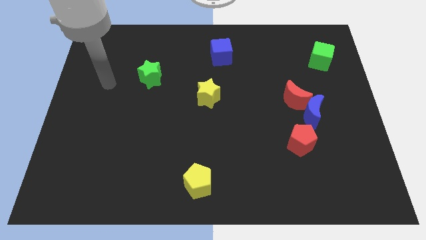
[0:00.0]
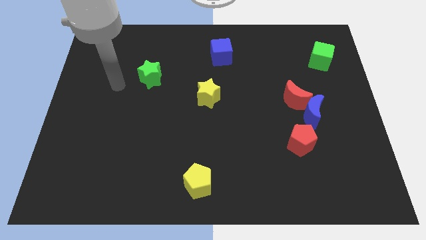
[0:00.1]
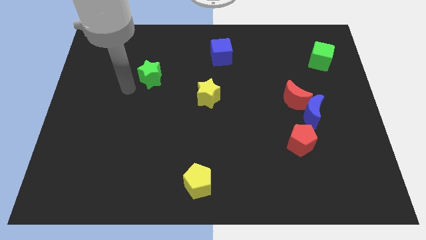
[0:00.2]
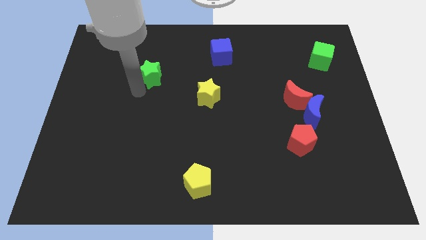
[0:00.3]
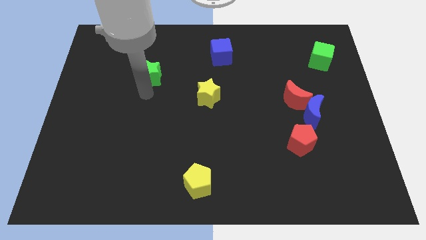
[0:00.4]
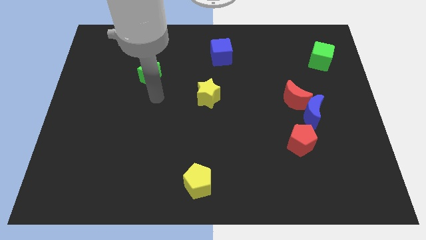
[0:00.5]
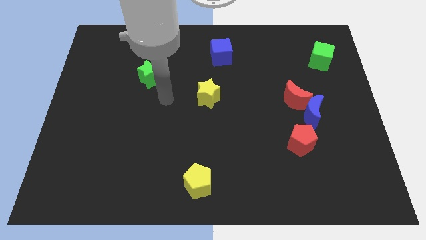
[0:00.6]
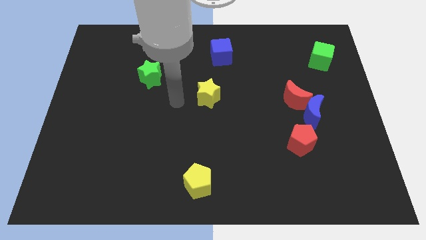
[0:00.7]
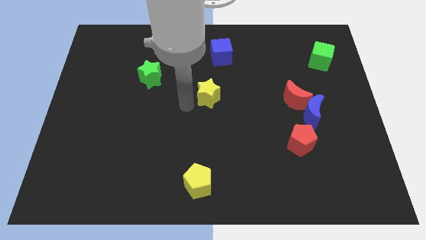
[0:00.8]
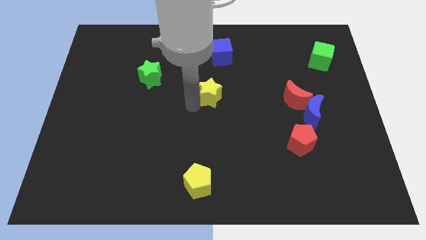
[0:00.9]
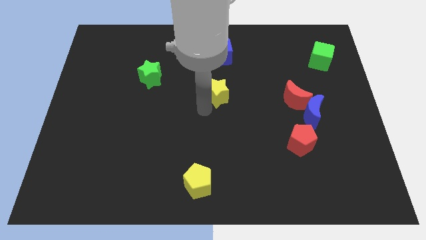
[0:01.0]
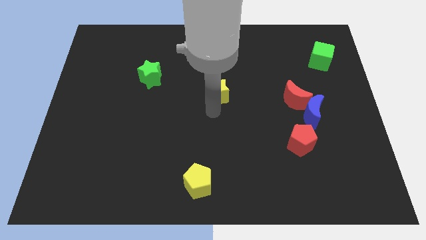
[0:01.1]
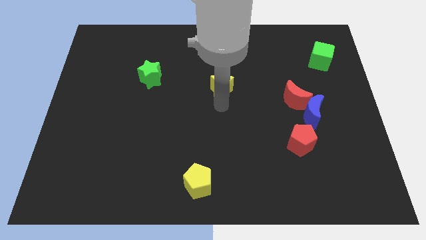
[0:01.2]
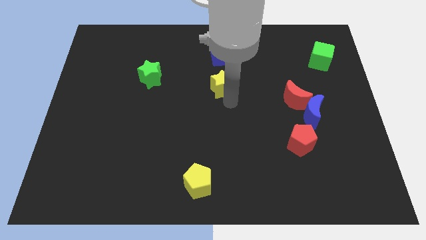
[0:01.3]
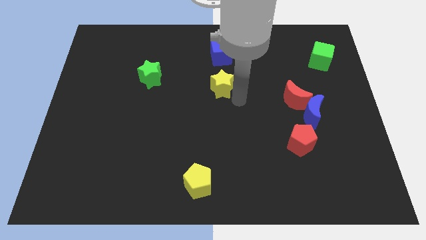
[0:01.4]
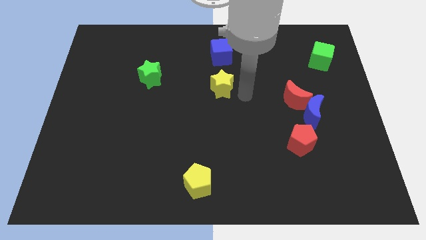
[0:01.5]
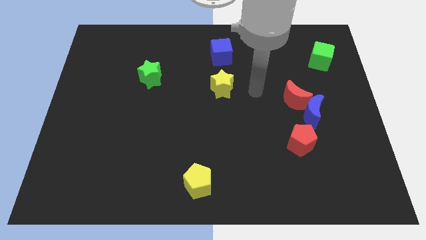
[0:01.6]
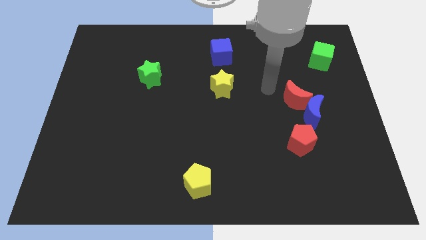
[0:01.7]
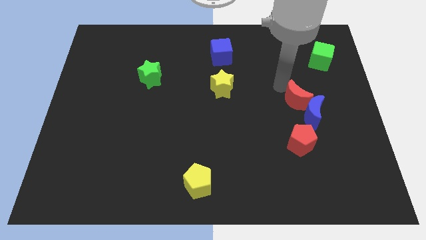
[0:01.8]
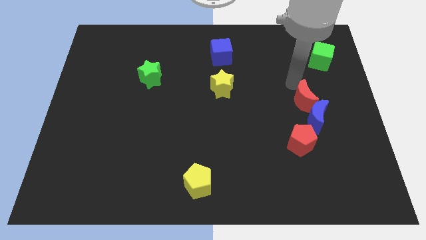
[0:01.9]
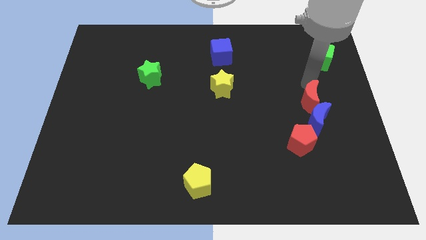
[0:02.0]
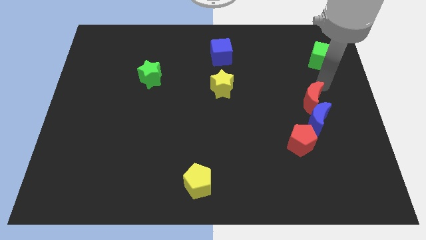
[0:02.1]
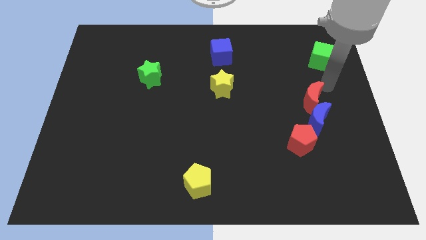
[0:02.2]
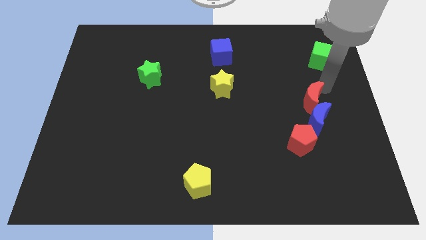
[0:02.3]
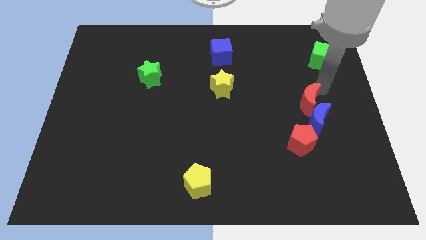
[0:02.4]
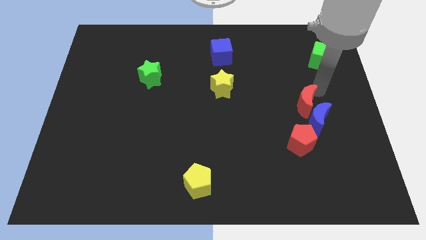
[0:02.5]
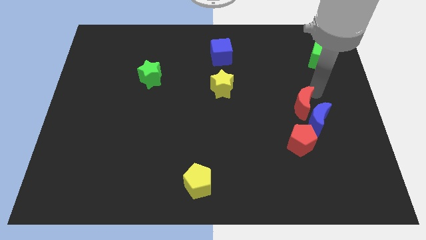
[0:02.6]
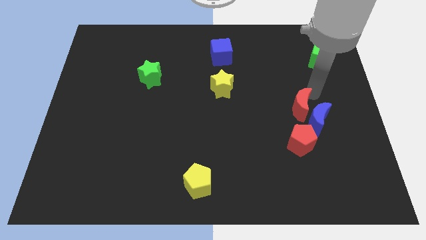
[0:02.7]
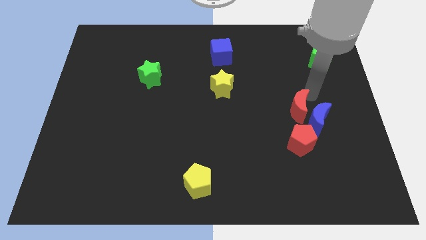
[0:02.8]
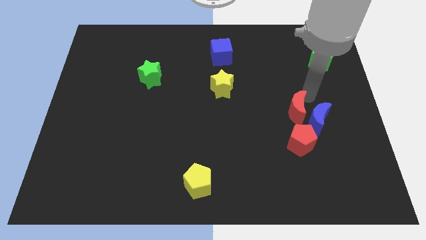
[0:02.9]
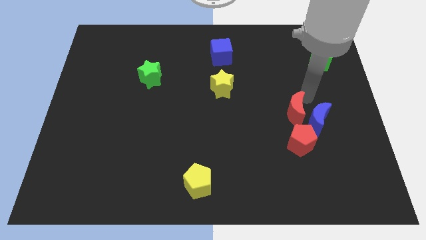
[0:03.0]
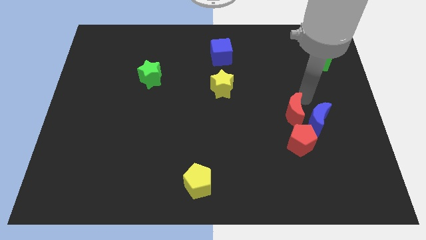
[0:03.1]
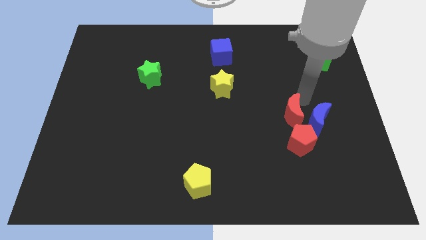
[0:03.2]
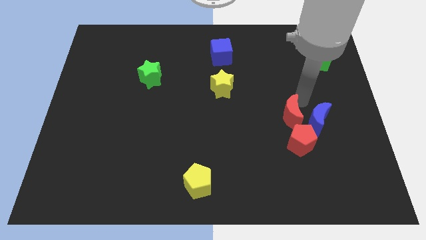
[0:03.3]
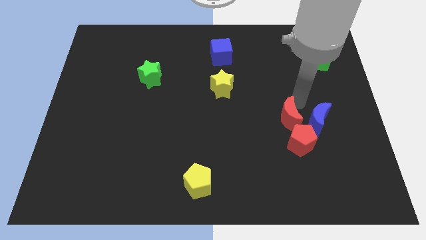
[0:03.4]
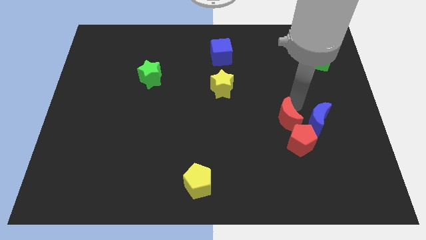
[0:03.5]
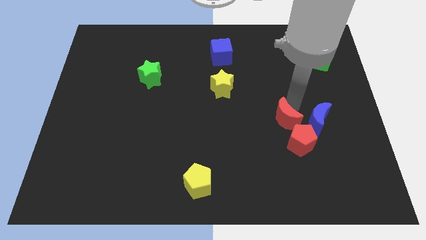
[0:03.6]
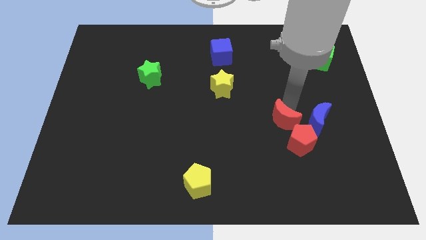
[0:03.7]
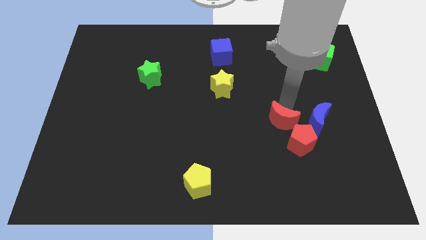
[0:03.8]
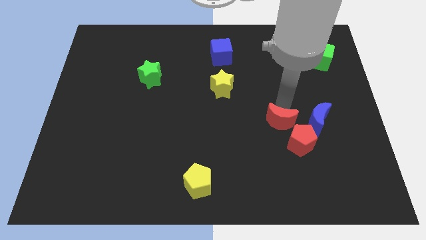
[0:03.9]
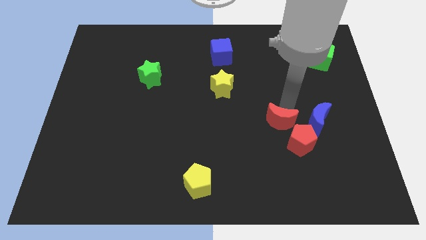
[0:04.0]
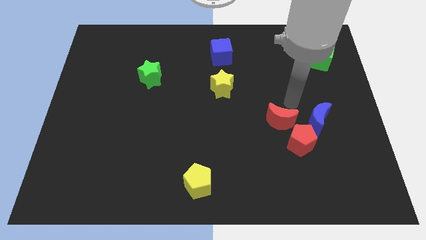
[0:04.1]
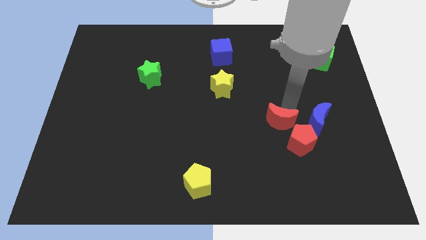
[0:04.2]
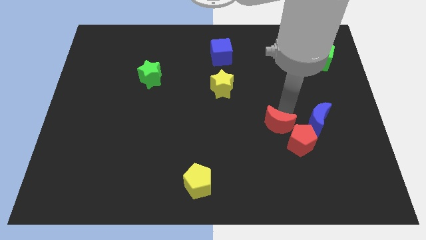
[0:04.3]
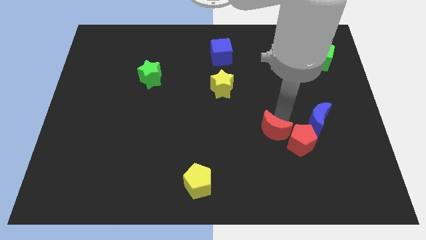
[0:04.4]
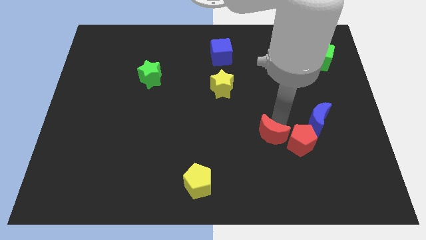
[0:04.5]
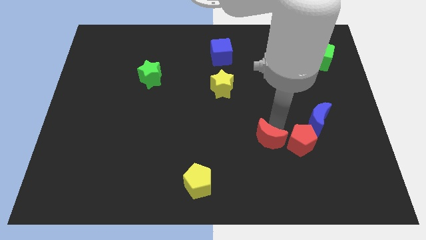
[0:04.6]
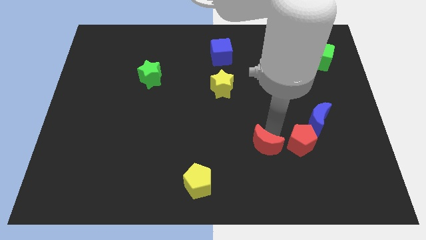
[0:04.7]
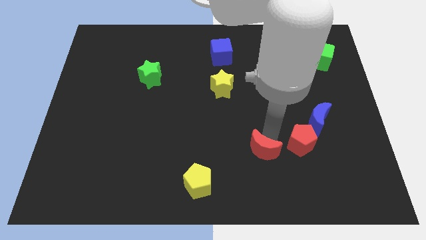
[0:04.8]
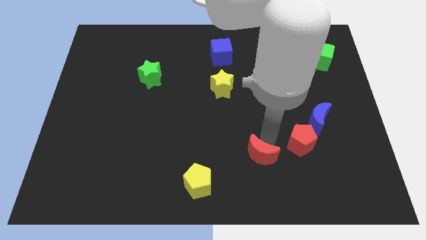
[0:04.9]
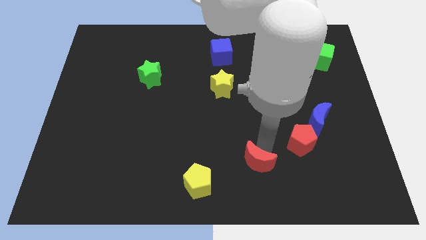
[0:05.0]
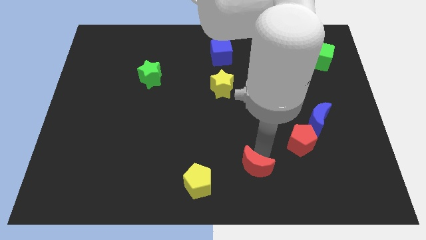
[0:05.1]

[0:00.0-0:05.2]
push the red moon to the bottom side

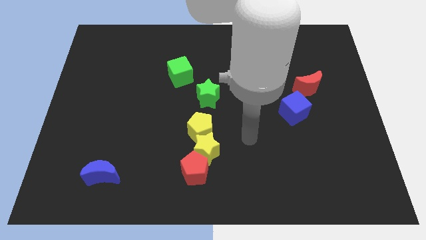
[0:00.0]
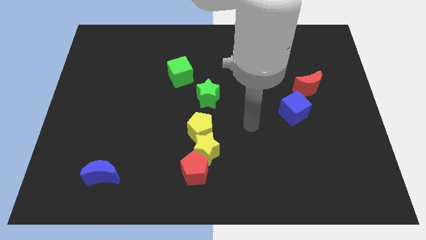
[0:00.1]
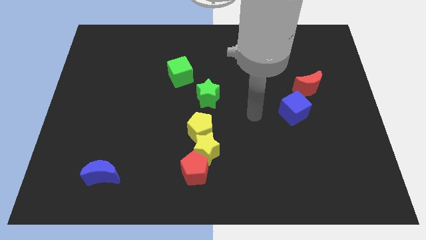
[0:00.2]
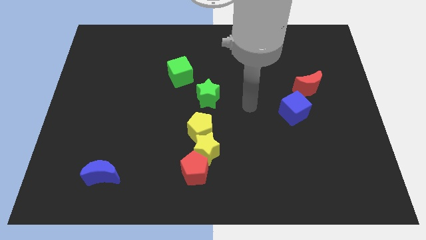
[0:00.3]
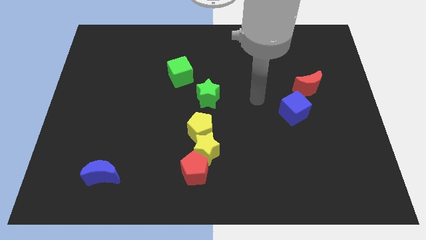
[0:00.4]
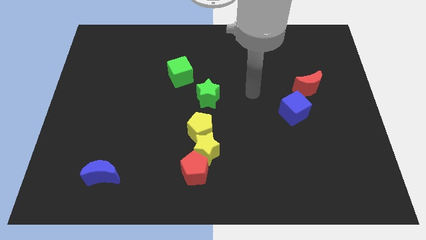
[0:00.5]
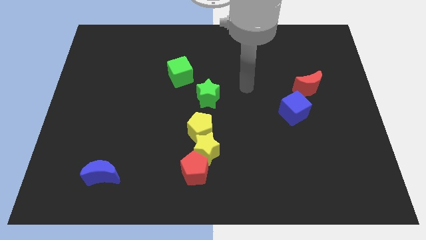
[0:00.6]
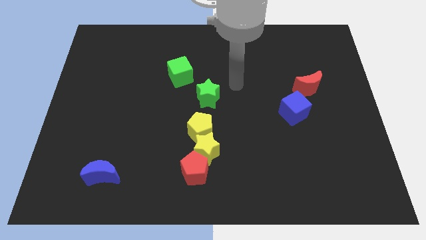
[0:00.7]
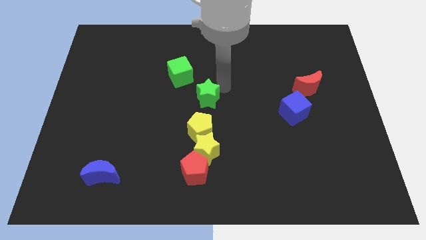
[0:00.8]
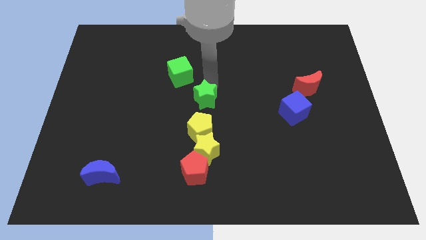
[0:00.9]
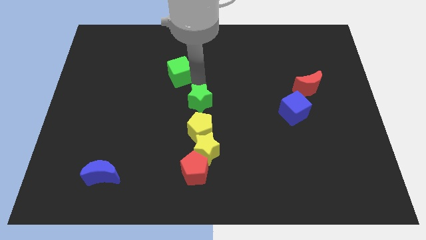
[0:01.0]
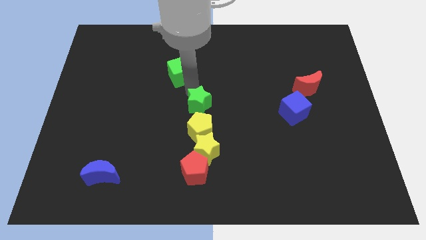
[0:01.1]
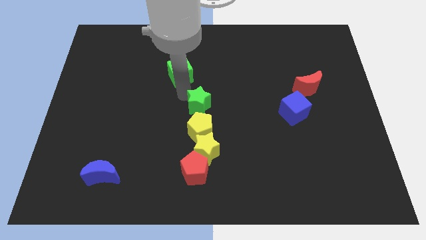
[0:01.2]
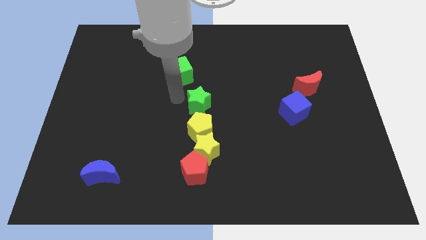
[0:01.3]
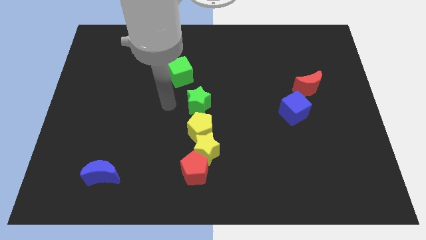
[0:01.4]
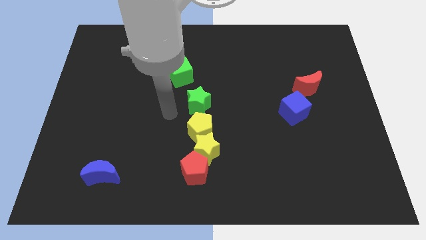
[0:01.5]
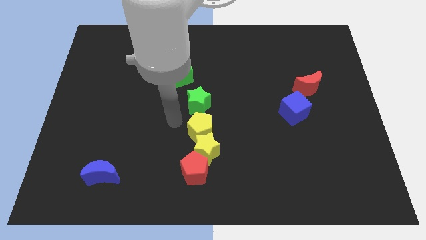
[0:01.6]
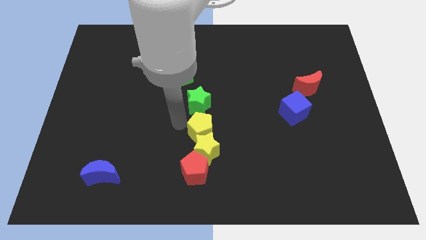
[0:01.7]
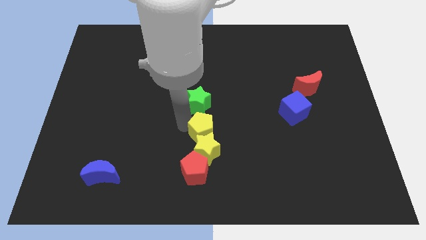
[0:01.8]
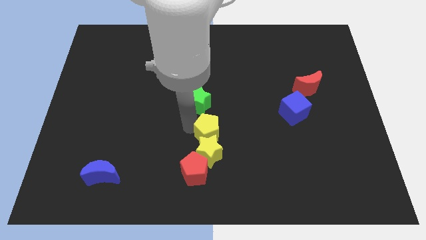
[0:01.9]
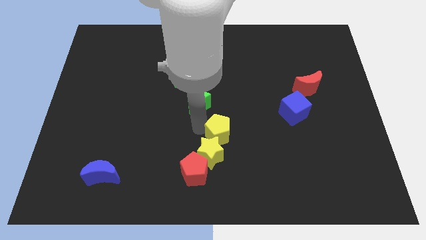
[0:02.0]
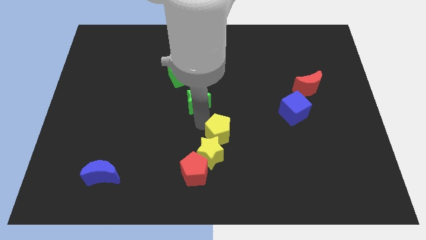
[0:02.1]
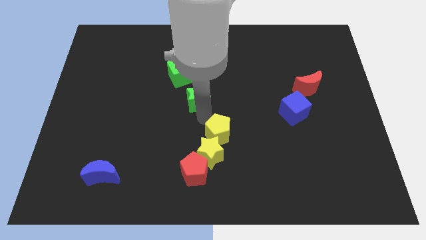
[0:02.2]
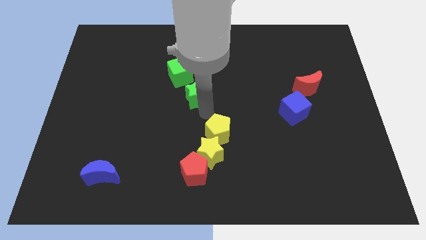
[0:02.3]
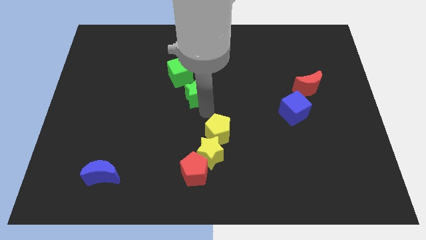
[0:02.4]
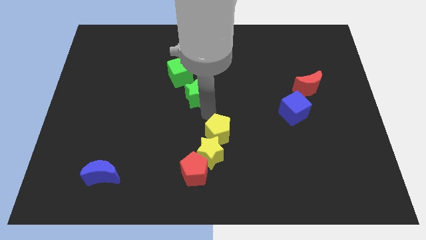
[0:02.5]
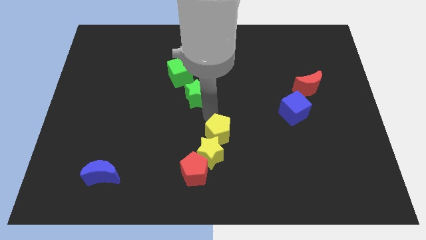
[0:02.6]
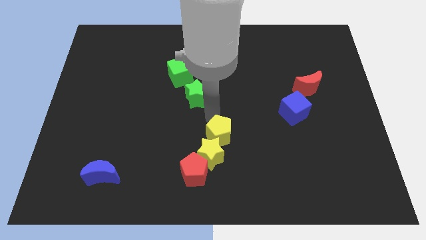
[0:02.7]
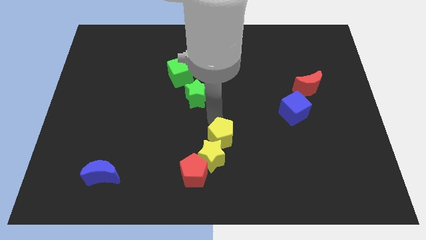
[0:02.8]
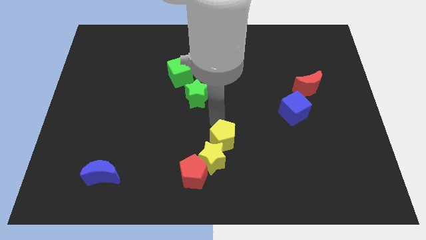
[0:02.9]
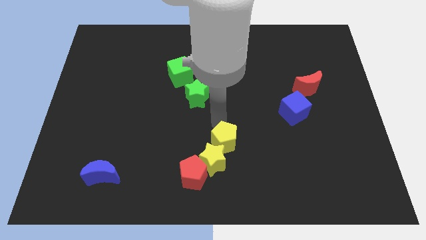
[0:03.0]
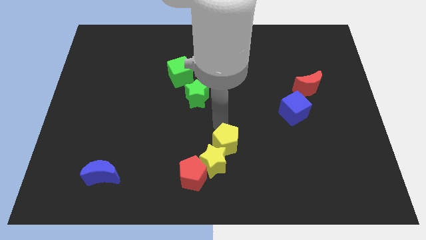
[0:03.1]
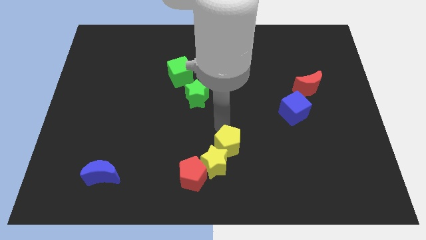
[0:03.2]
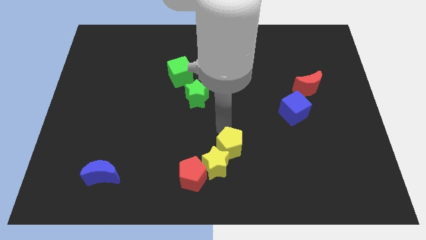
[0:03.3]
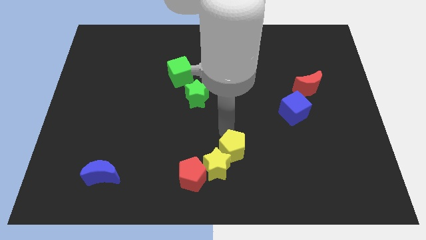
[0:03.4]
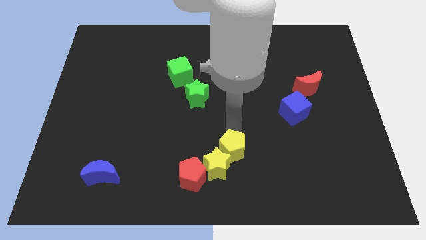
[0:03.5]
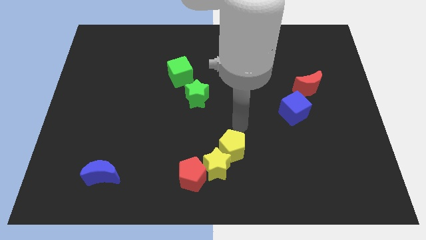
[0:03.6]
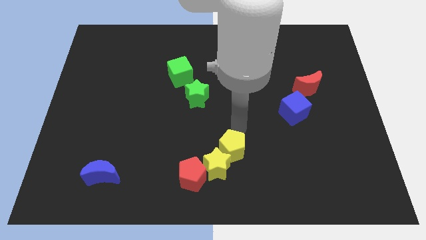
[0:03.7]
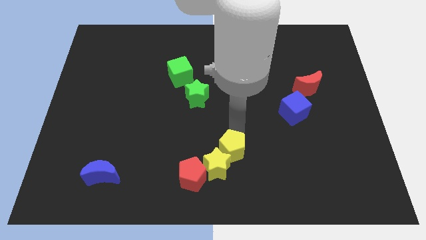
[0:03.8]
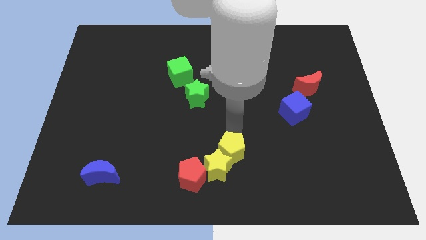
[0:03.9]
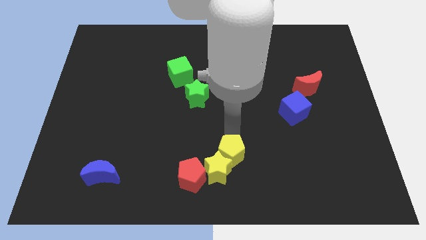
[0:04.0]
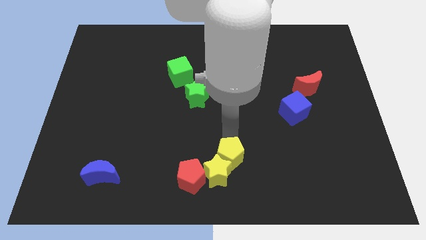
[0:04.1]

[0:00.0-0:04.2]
push the yellow pentagon to the bottom side
